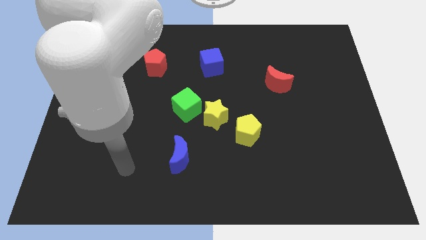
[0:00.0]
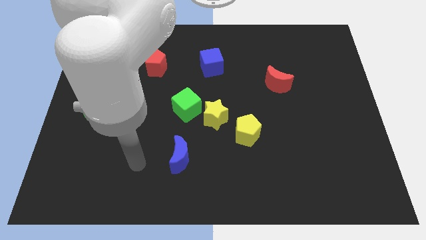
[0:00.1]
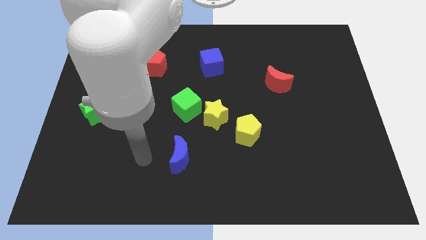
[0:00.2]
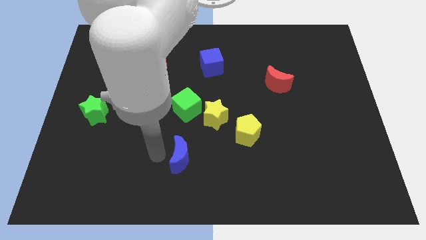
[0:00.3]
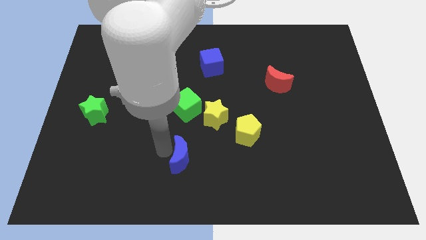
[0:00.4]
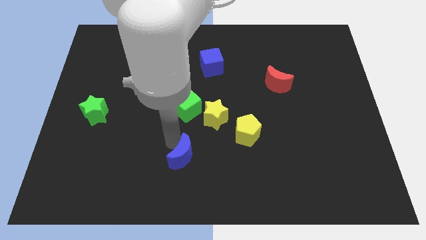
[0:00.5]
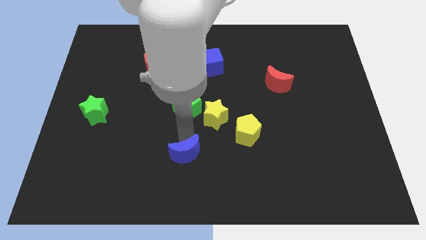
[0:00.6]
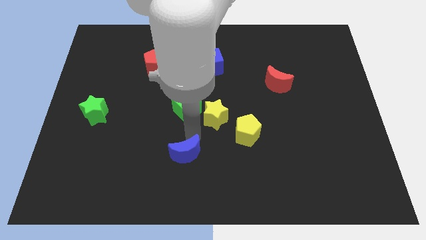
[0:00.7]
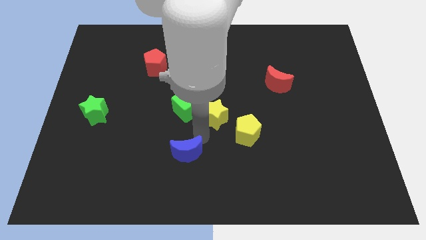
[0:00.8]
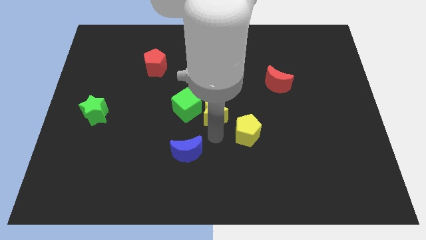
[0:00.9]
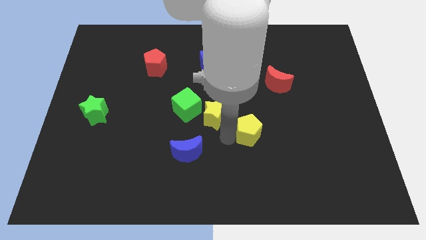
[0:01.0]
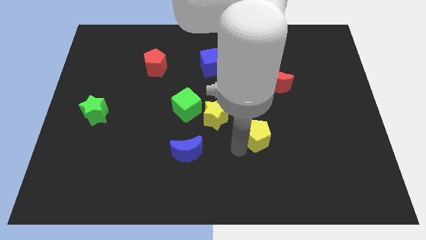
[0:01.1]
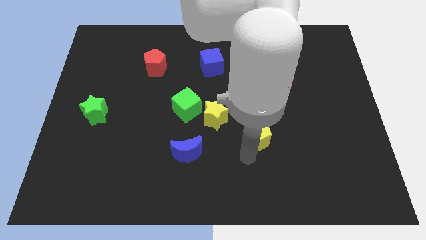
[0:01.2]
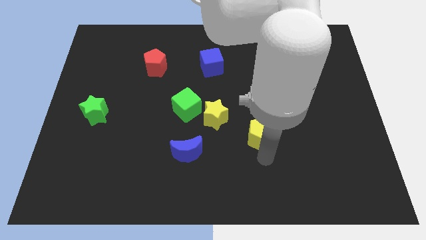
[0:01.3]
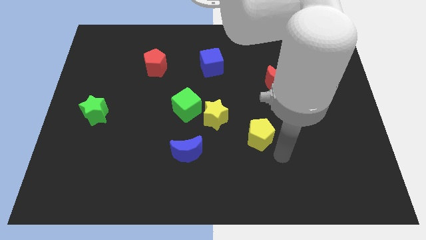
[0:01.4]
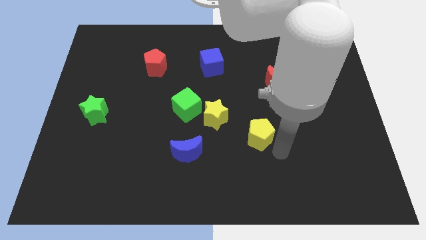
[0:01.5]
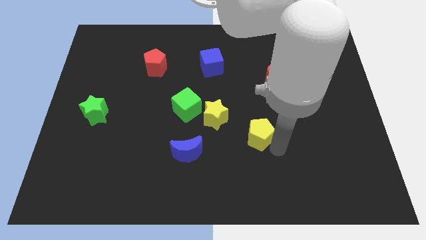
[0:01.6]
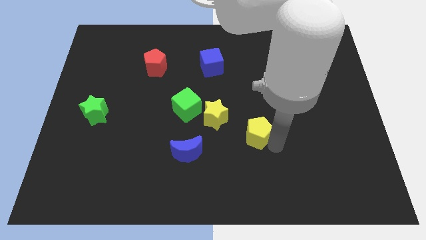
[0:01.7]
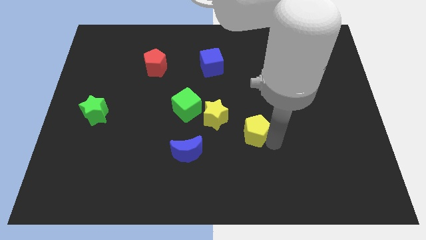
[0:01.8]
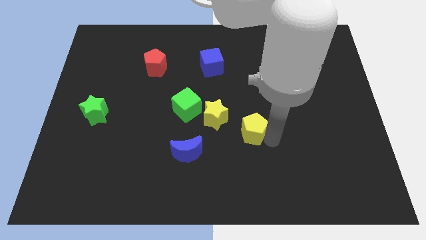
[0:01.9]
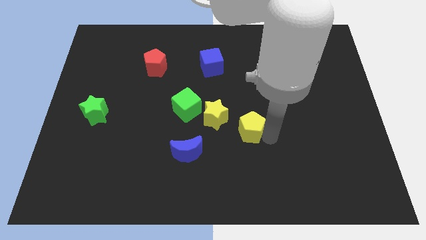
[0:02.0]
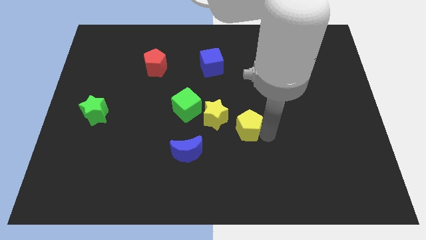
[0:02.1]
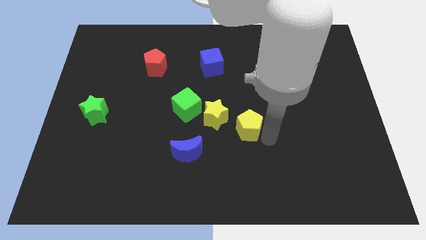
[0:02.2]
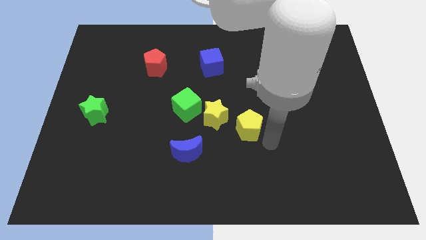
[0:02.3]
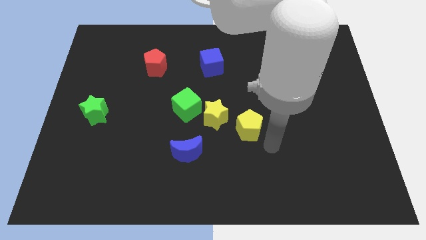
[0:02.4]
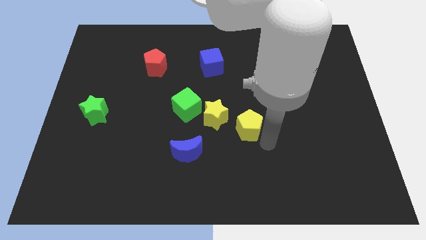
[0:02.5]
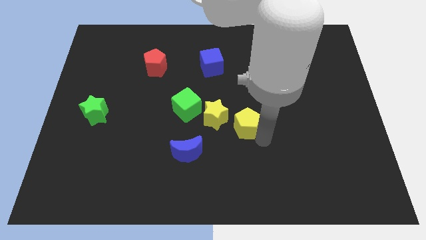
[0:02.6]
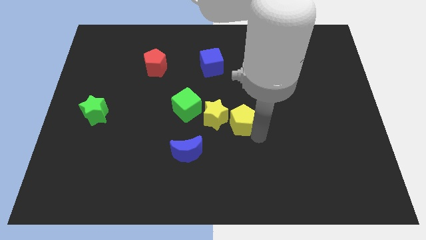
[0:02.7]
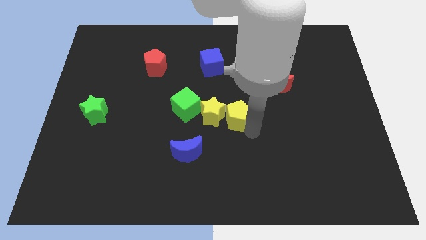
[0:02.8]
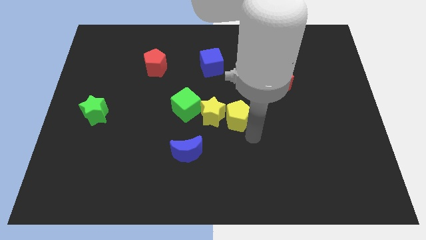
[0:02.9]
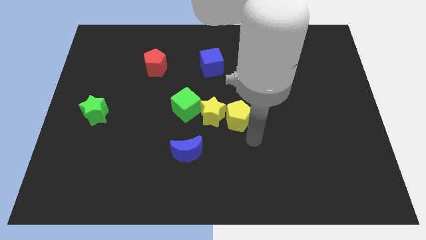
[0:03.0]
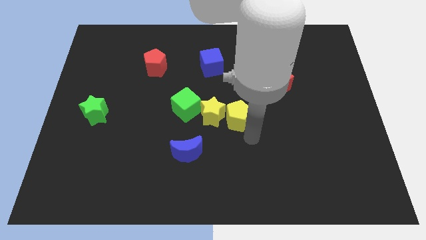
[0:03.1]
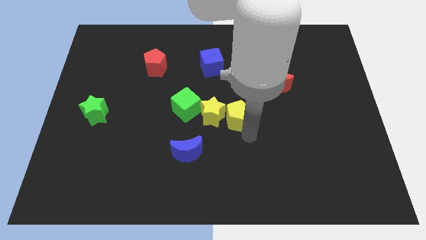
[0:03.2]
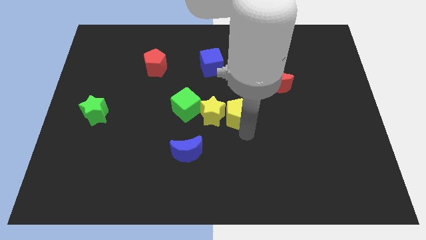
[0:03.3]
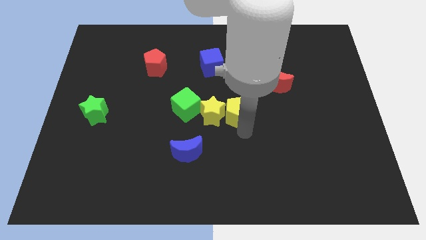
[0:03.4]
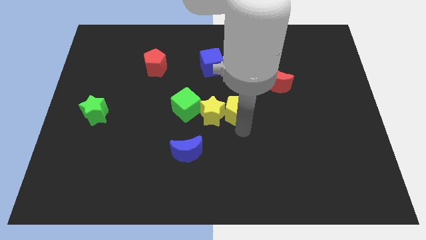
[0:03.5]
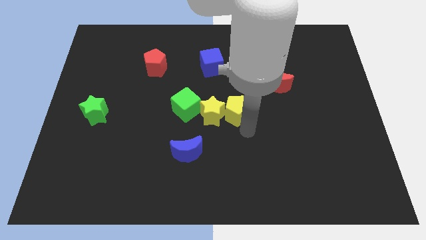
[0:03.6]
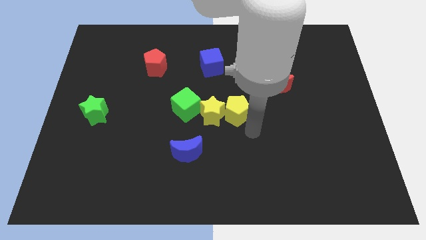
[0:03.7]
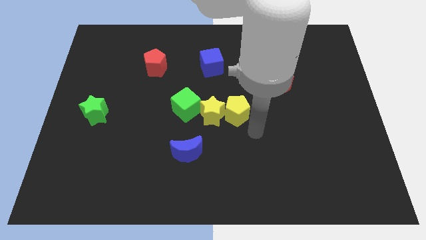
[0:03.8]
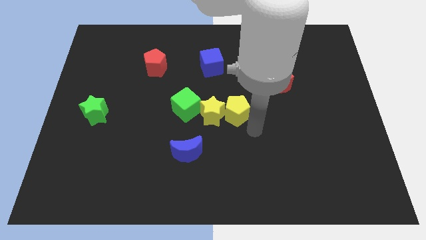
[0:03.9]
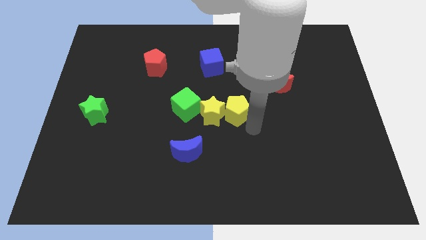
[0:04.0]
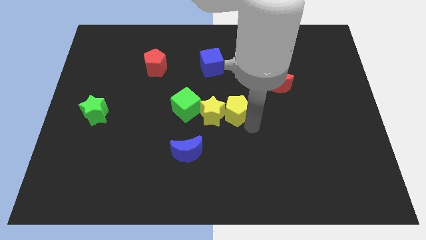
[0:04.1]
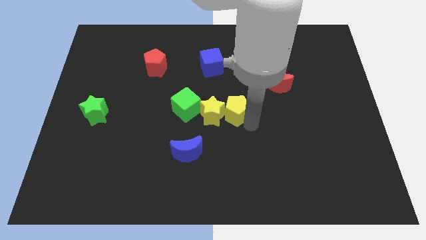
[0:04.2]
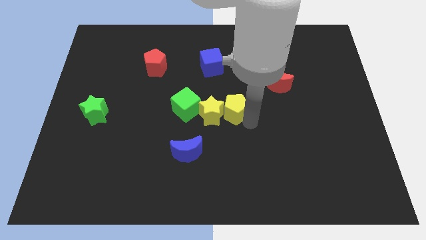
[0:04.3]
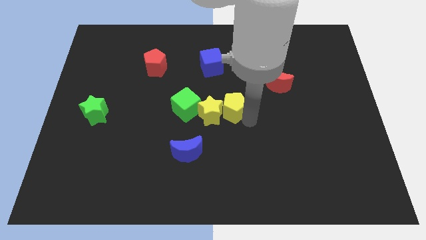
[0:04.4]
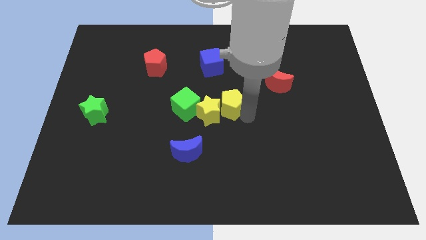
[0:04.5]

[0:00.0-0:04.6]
move the yellow pentagon slightly upwards and left diagonally

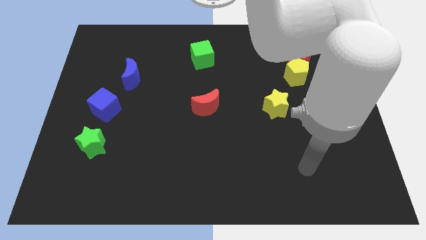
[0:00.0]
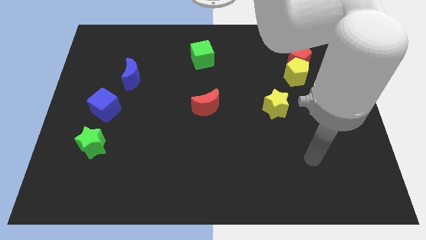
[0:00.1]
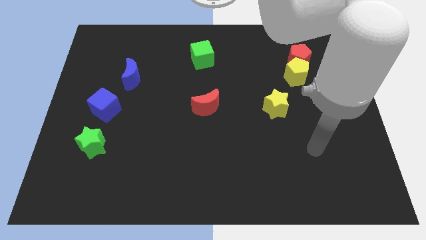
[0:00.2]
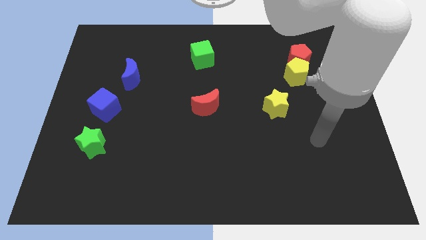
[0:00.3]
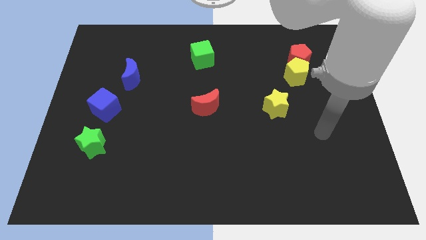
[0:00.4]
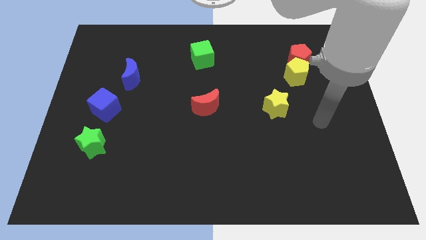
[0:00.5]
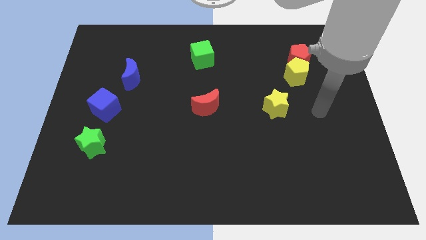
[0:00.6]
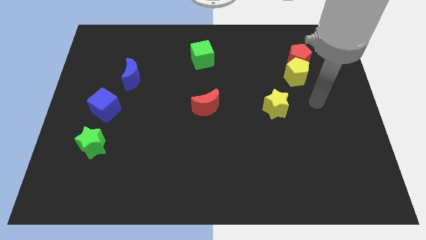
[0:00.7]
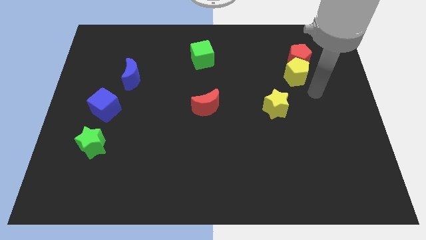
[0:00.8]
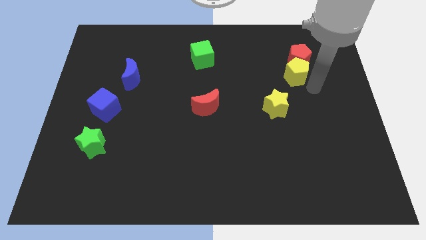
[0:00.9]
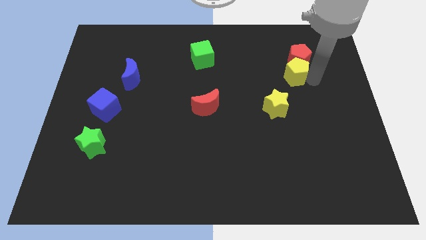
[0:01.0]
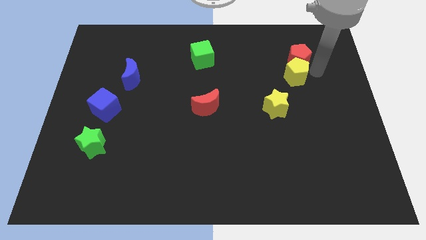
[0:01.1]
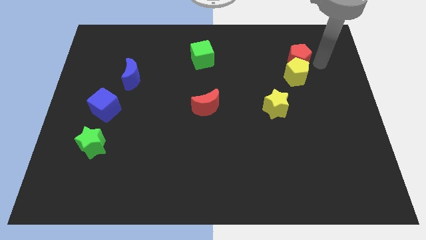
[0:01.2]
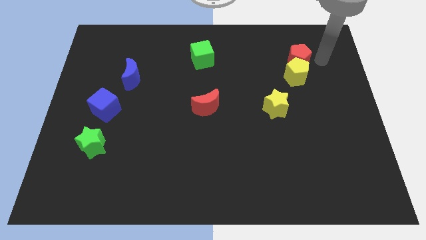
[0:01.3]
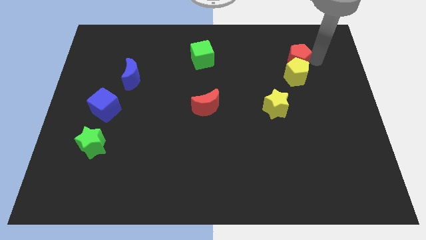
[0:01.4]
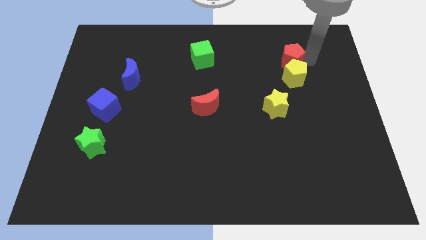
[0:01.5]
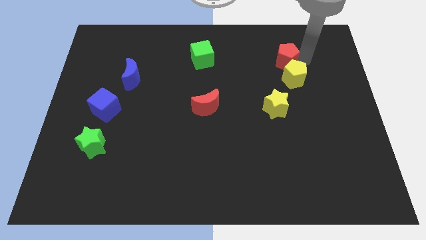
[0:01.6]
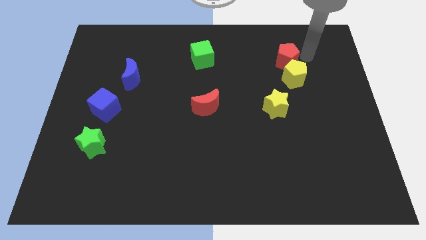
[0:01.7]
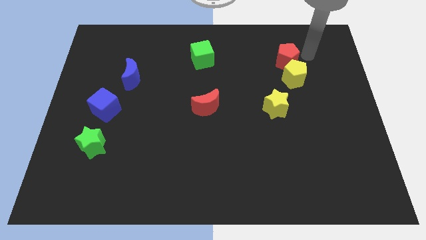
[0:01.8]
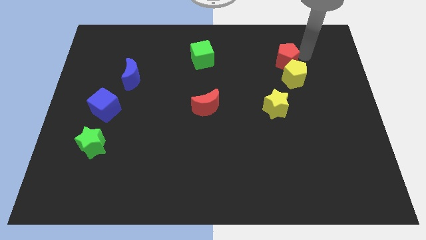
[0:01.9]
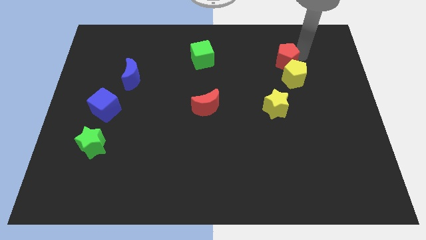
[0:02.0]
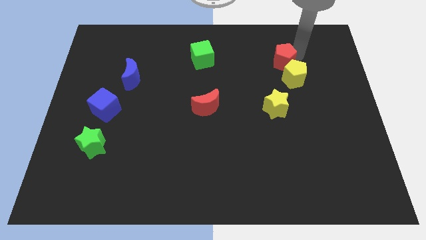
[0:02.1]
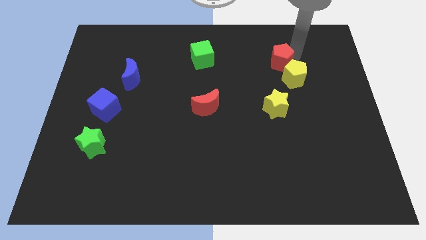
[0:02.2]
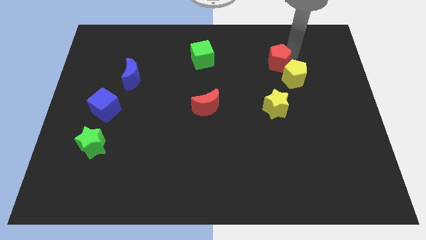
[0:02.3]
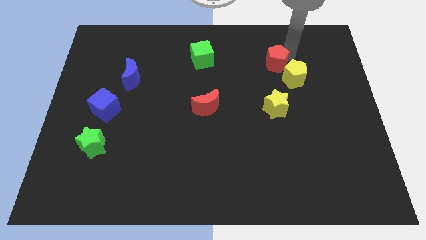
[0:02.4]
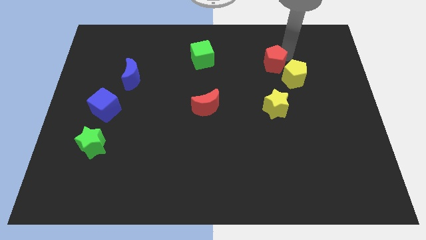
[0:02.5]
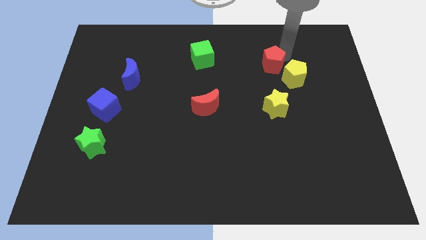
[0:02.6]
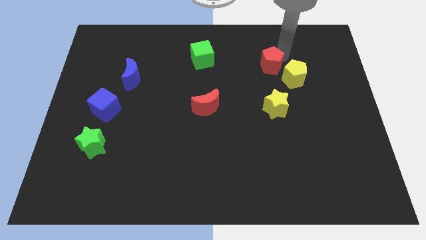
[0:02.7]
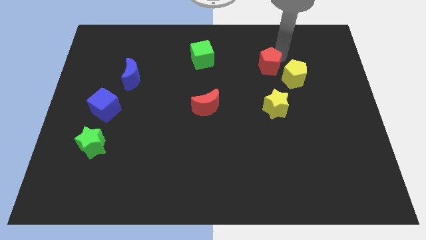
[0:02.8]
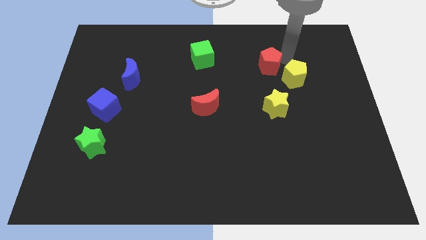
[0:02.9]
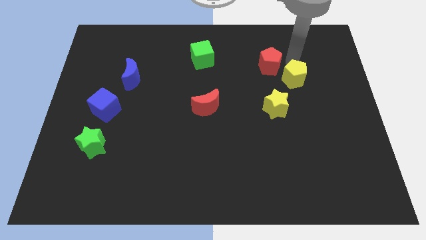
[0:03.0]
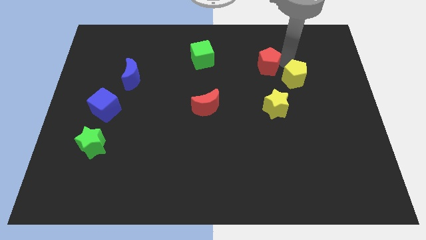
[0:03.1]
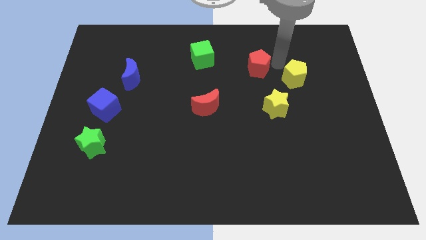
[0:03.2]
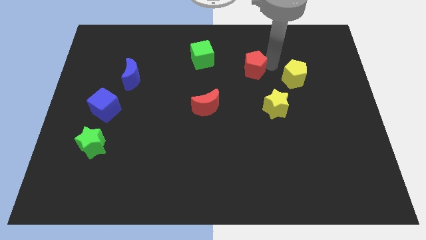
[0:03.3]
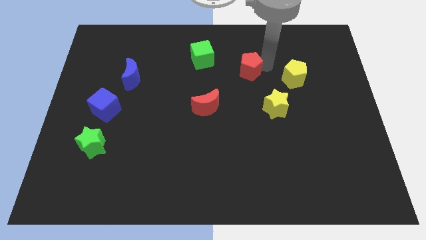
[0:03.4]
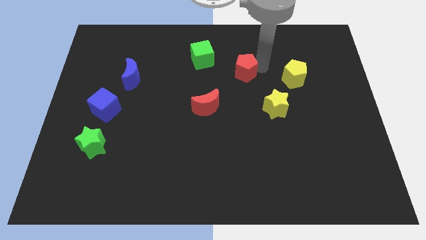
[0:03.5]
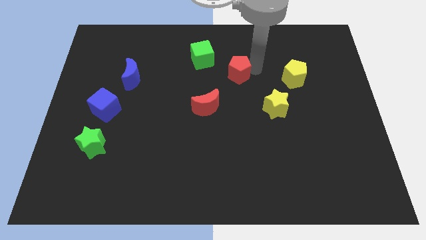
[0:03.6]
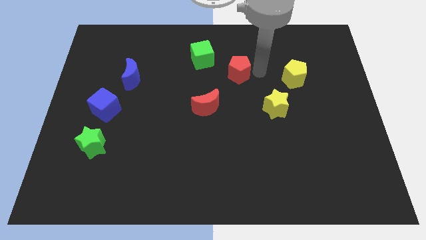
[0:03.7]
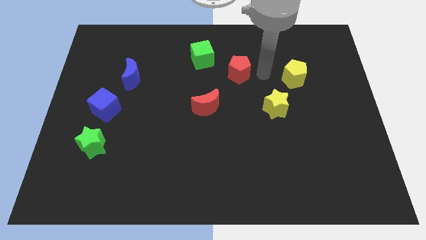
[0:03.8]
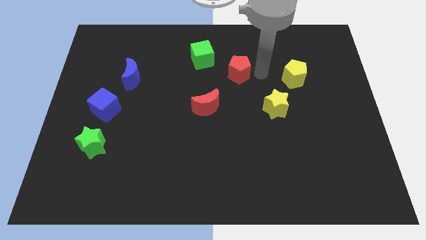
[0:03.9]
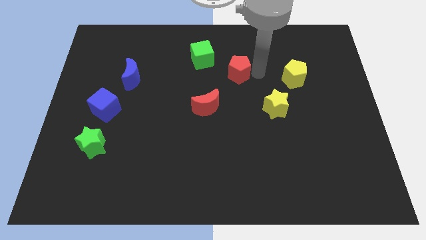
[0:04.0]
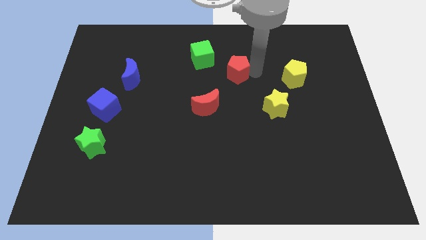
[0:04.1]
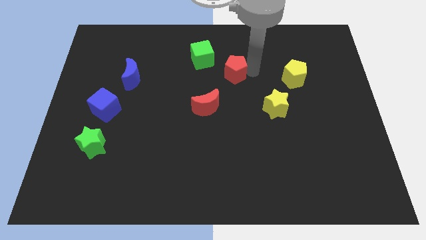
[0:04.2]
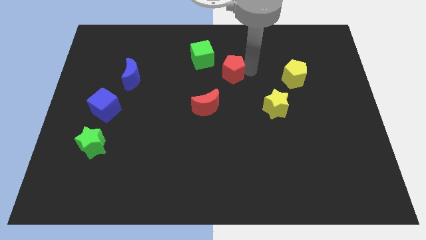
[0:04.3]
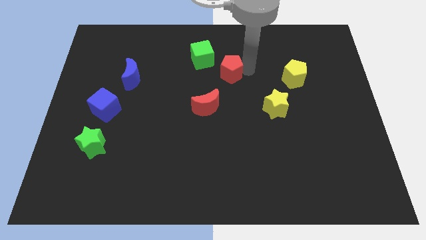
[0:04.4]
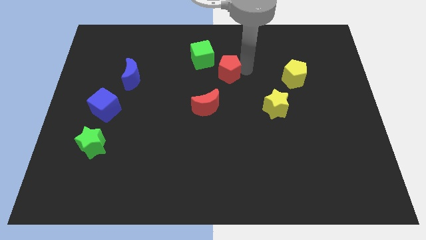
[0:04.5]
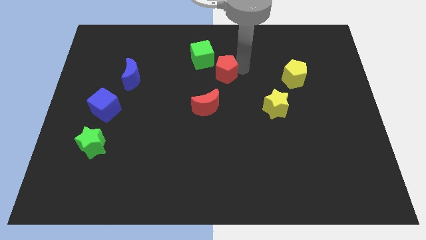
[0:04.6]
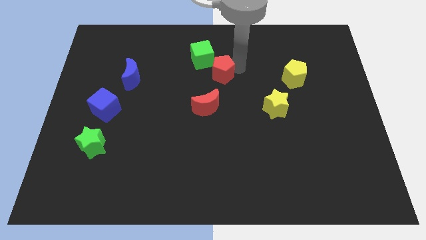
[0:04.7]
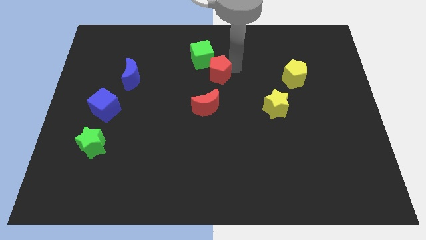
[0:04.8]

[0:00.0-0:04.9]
push the red pentagon left
